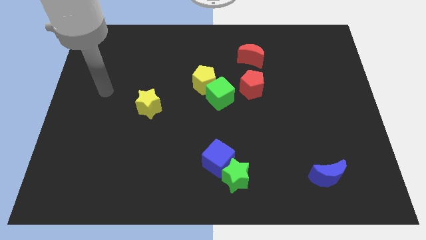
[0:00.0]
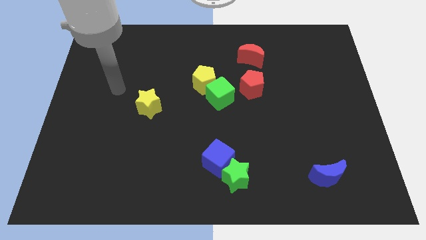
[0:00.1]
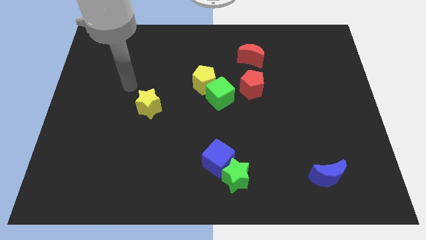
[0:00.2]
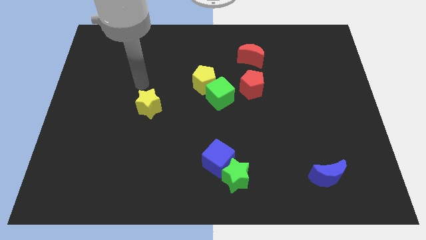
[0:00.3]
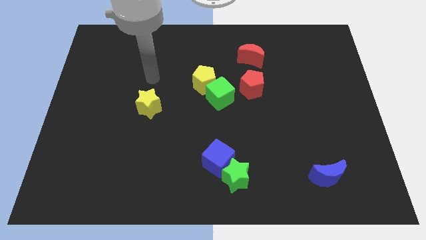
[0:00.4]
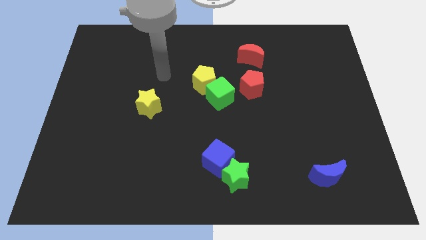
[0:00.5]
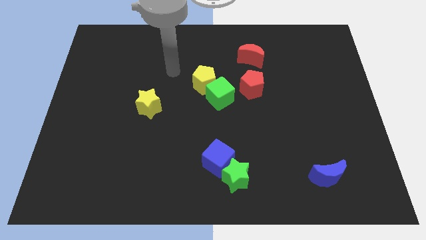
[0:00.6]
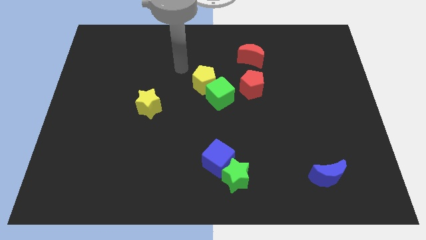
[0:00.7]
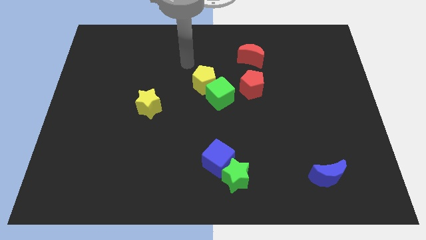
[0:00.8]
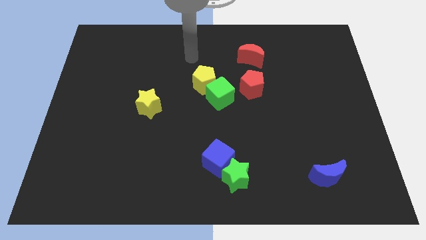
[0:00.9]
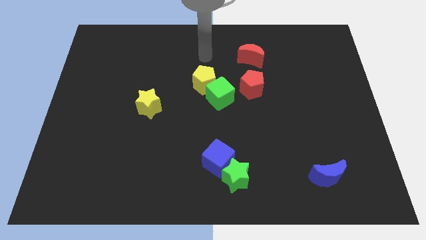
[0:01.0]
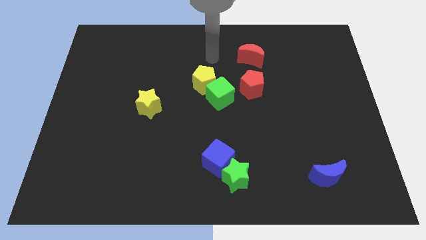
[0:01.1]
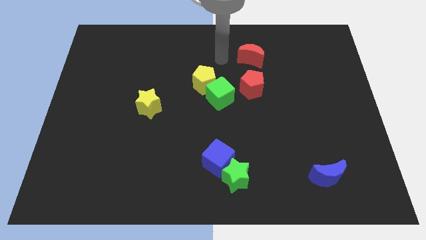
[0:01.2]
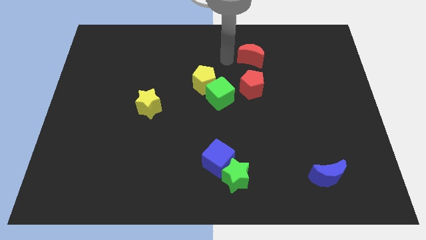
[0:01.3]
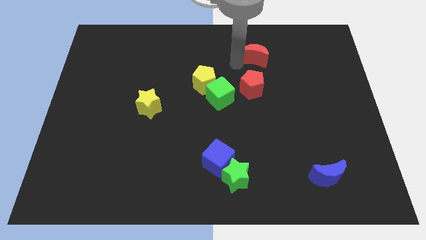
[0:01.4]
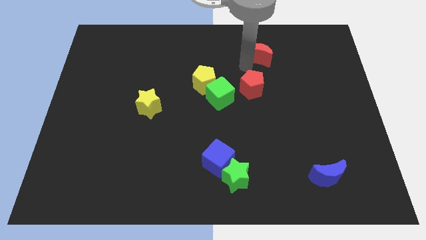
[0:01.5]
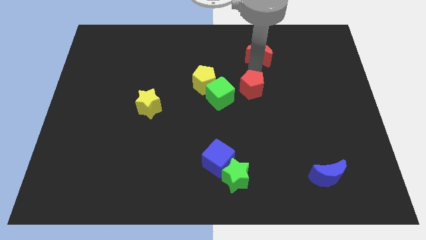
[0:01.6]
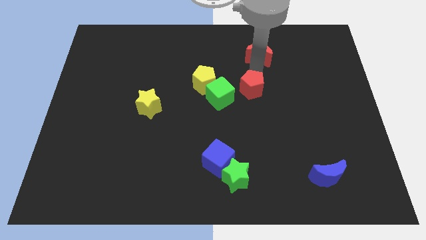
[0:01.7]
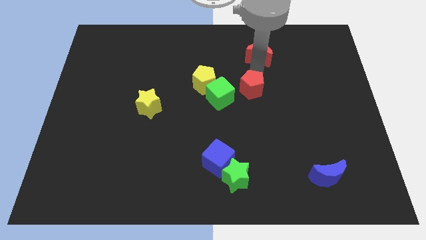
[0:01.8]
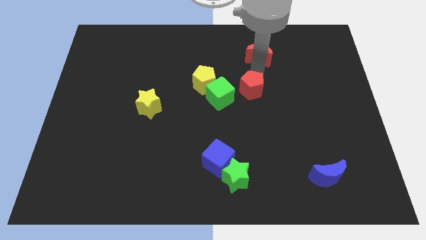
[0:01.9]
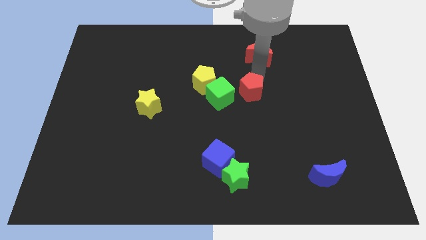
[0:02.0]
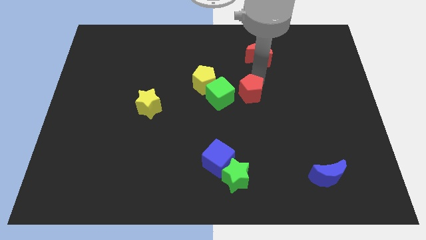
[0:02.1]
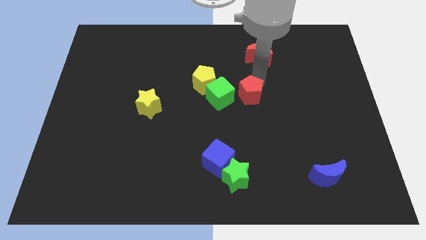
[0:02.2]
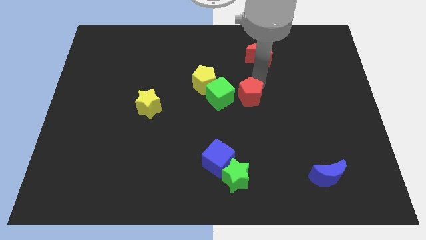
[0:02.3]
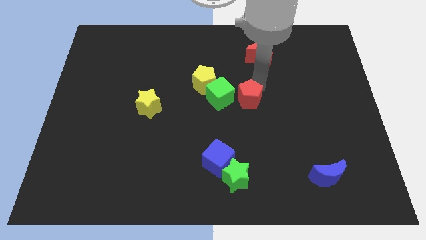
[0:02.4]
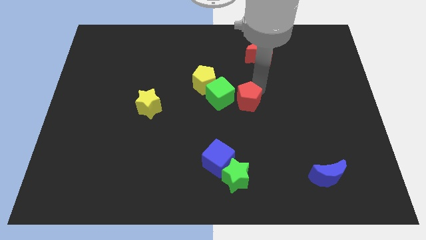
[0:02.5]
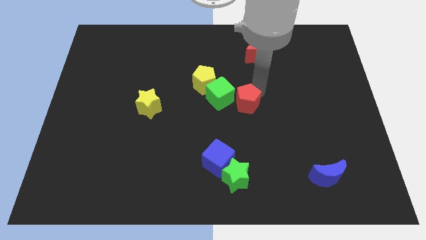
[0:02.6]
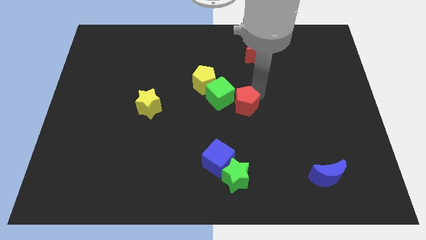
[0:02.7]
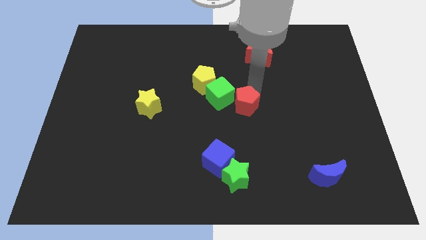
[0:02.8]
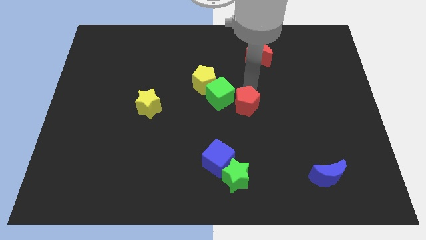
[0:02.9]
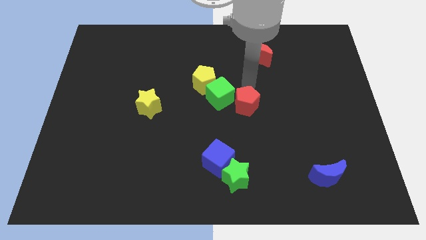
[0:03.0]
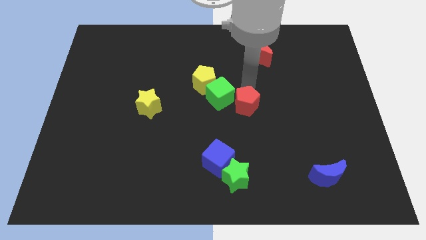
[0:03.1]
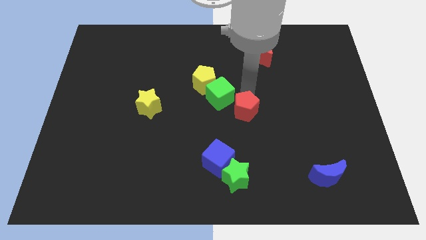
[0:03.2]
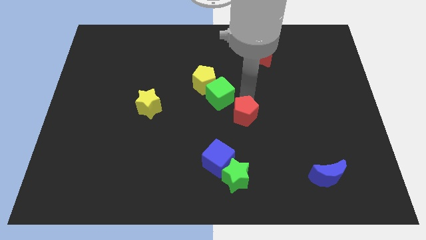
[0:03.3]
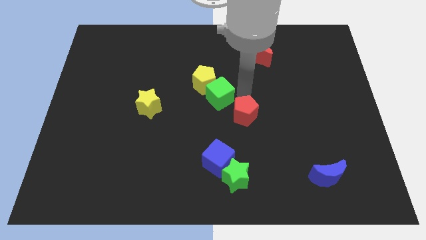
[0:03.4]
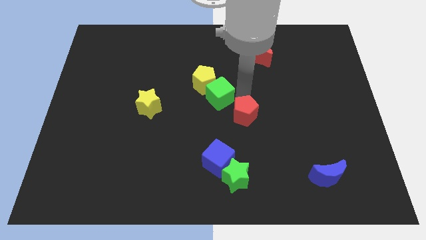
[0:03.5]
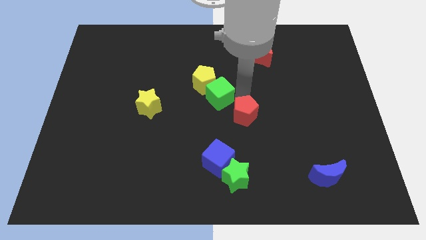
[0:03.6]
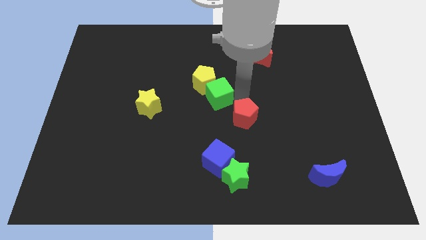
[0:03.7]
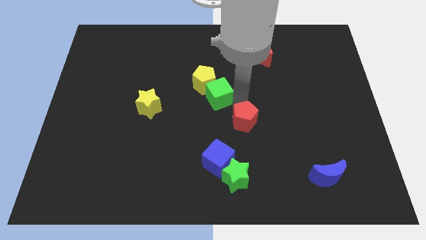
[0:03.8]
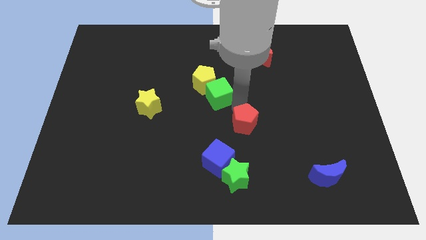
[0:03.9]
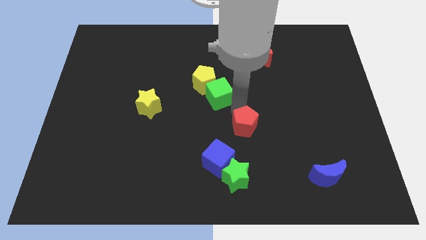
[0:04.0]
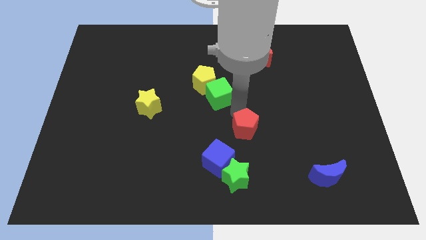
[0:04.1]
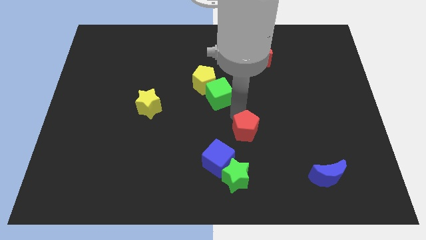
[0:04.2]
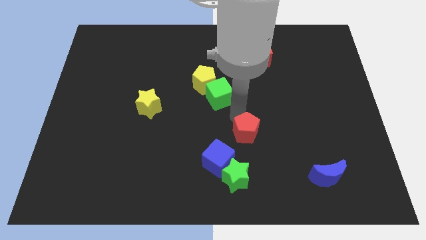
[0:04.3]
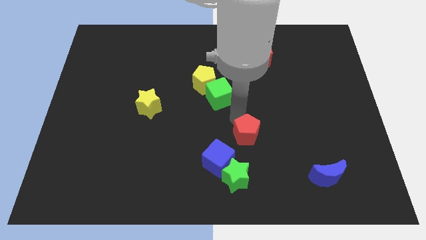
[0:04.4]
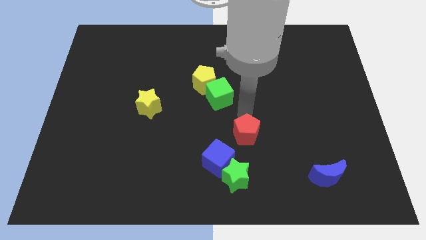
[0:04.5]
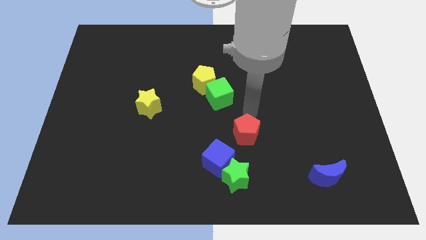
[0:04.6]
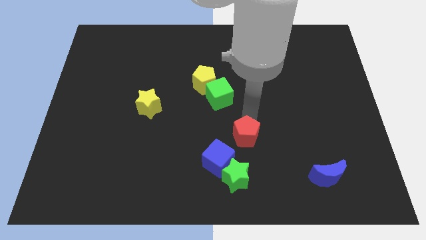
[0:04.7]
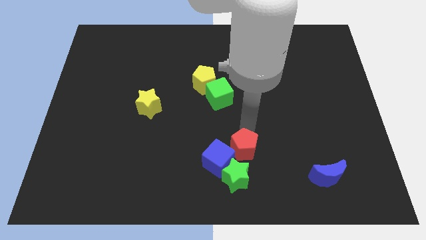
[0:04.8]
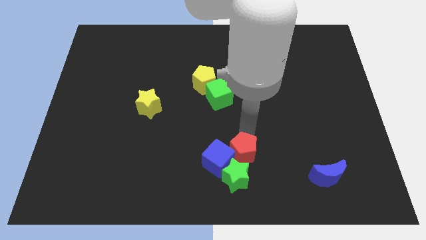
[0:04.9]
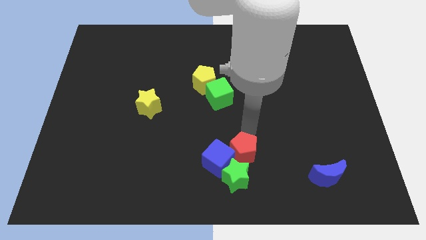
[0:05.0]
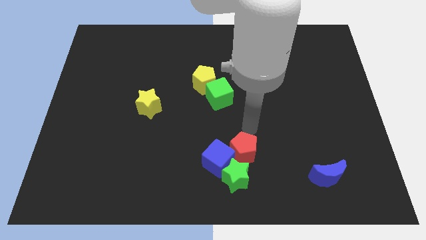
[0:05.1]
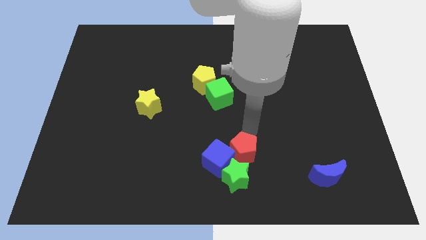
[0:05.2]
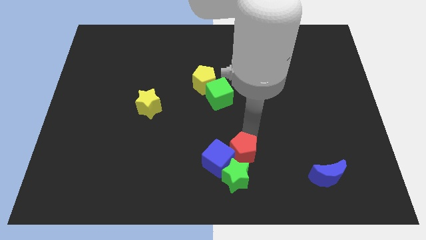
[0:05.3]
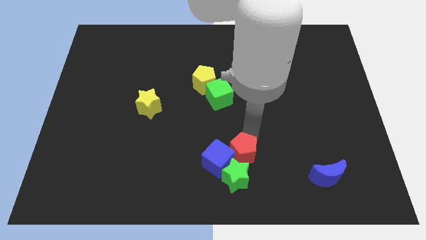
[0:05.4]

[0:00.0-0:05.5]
put the red pentagon towards the green star

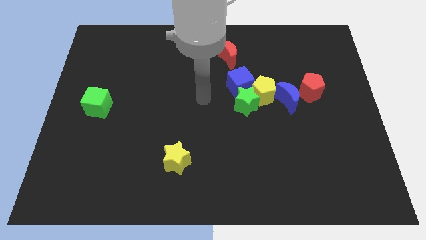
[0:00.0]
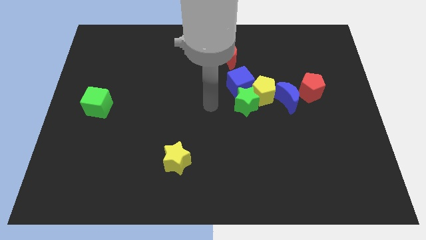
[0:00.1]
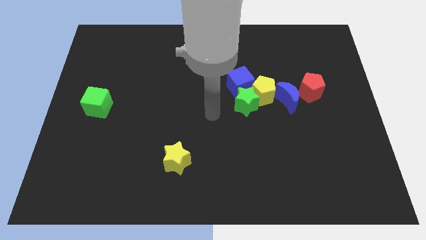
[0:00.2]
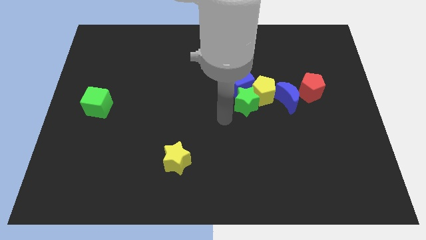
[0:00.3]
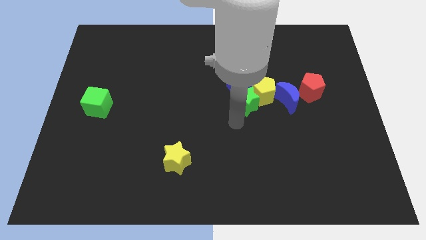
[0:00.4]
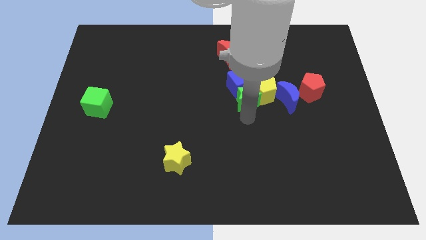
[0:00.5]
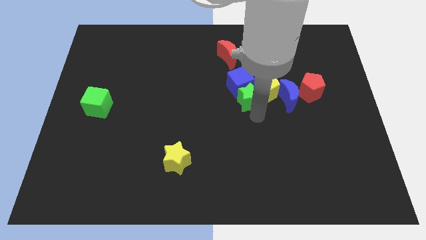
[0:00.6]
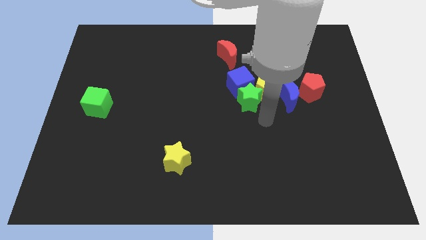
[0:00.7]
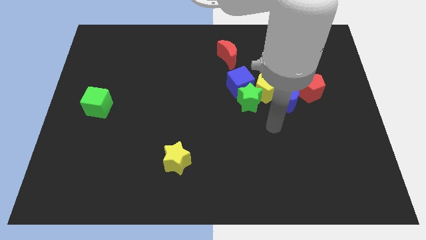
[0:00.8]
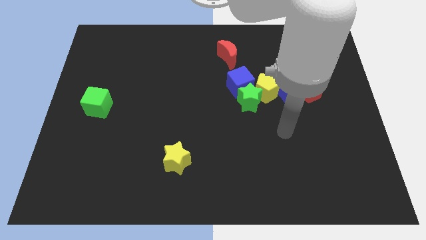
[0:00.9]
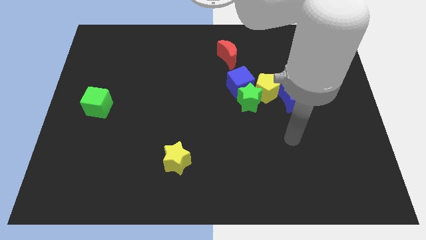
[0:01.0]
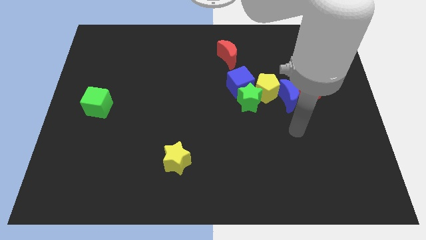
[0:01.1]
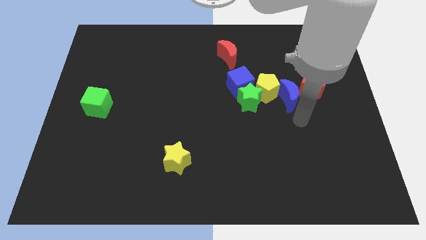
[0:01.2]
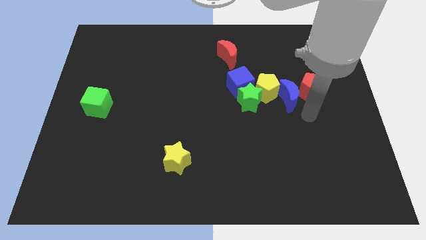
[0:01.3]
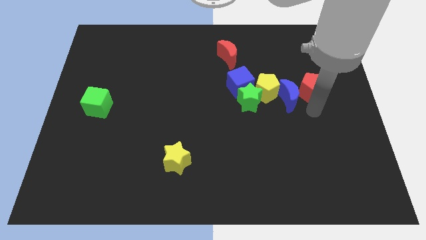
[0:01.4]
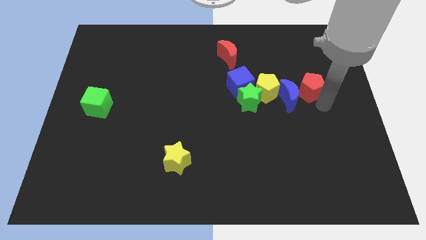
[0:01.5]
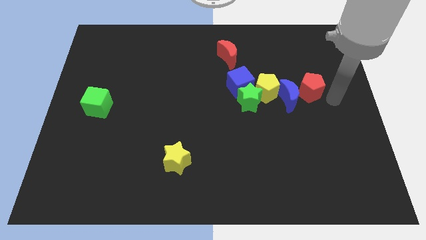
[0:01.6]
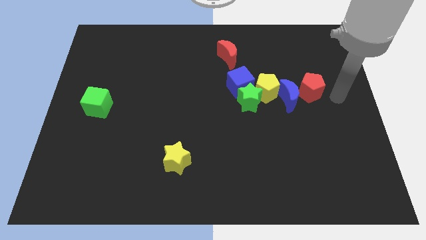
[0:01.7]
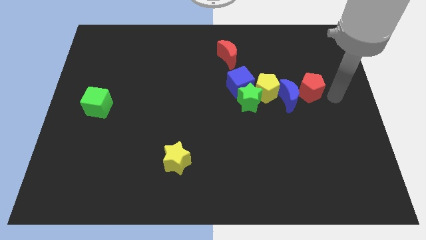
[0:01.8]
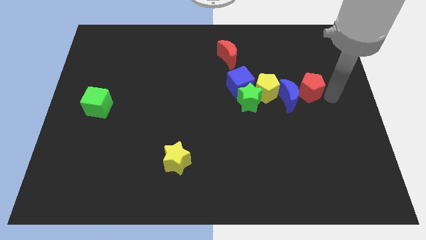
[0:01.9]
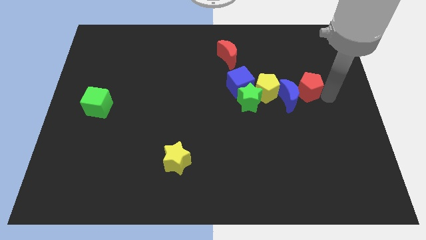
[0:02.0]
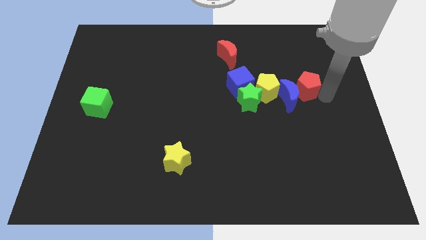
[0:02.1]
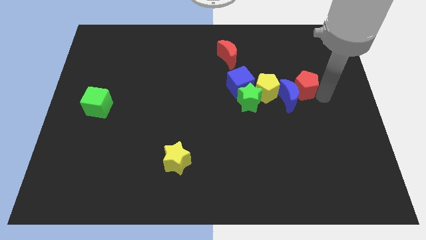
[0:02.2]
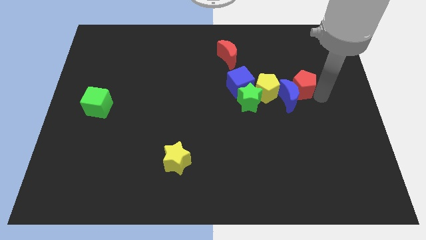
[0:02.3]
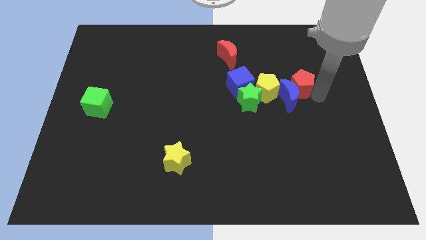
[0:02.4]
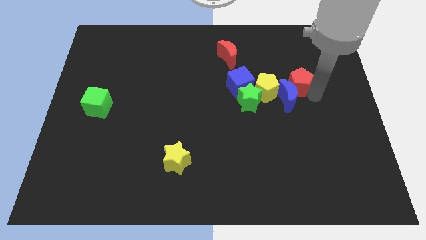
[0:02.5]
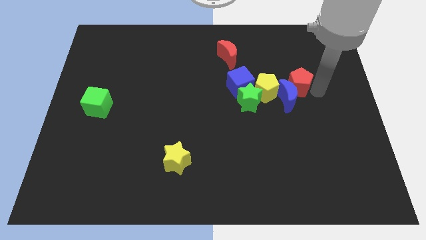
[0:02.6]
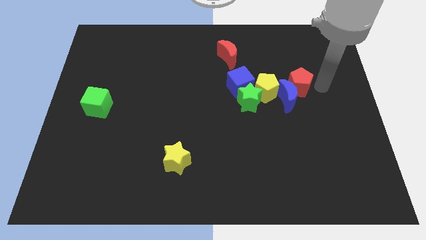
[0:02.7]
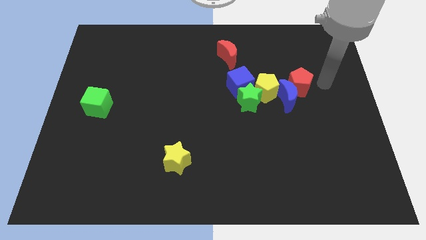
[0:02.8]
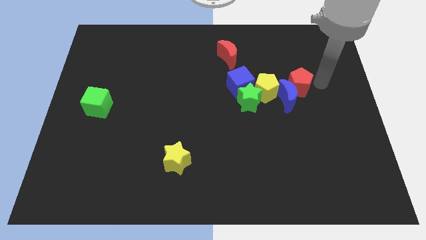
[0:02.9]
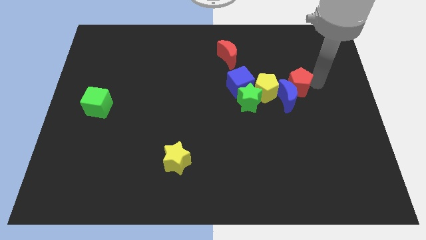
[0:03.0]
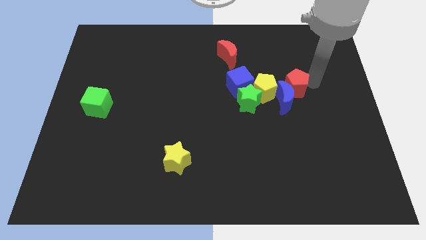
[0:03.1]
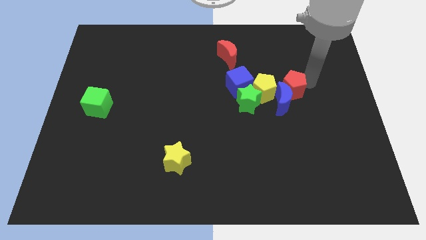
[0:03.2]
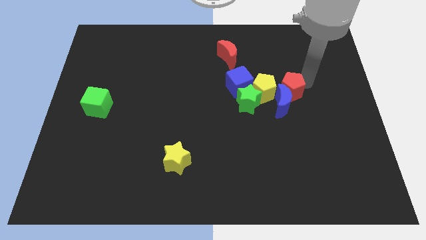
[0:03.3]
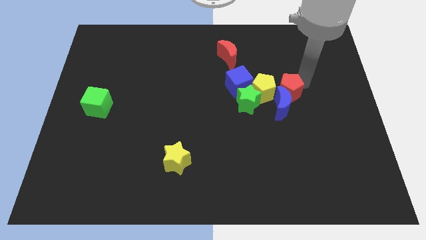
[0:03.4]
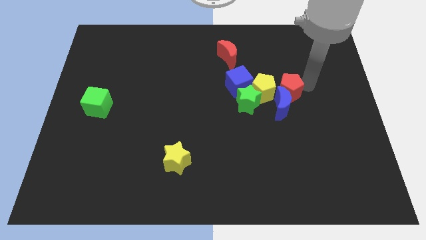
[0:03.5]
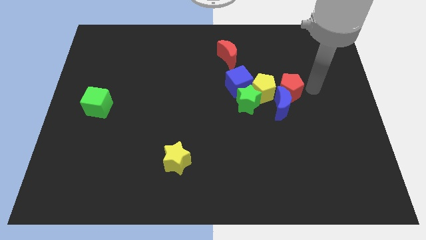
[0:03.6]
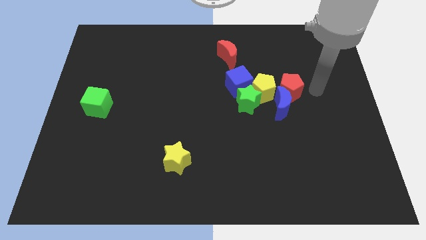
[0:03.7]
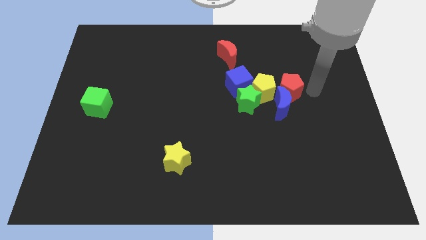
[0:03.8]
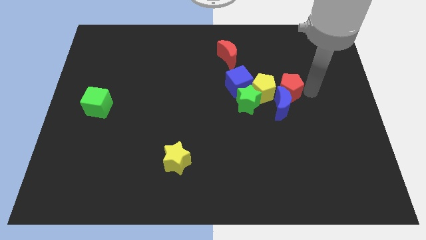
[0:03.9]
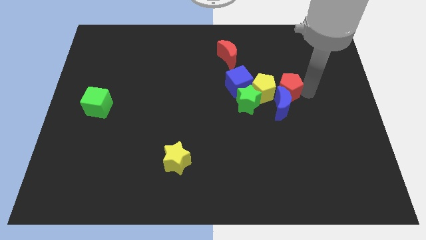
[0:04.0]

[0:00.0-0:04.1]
slide the red pentagon to the yellow pentagon
